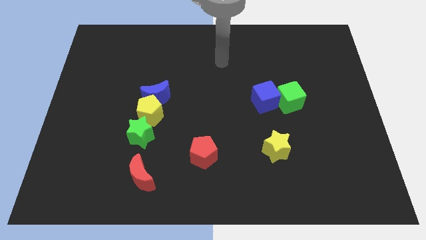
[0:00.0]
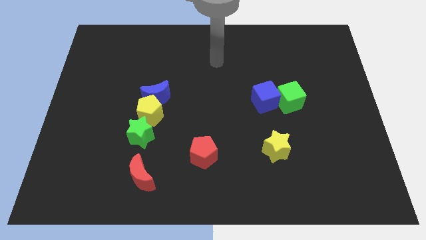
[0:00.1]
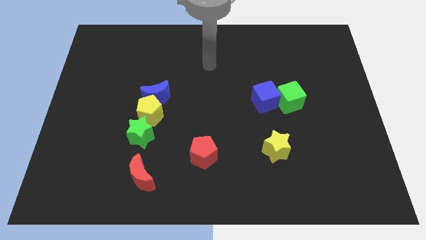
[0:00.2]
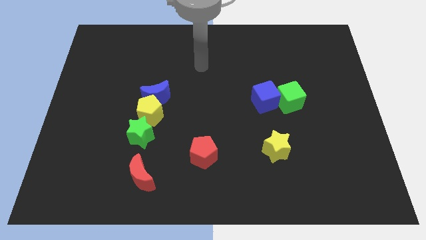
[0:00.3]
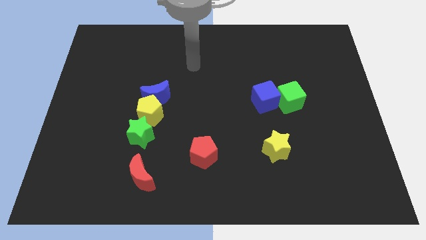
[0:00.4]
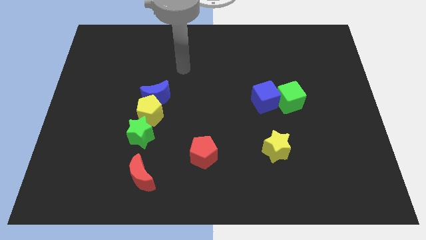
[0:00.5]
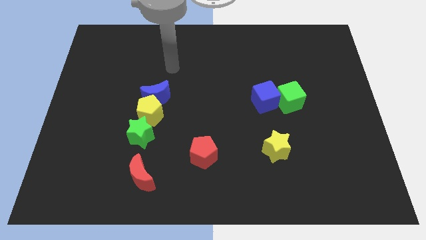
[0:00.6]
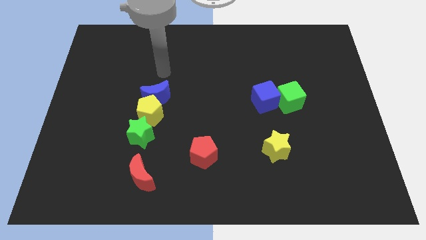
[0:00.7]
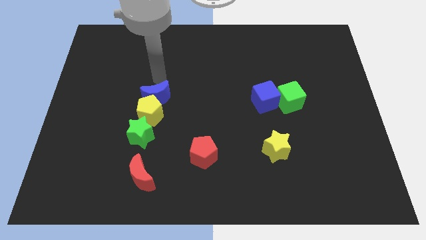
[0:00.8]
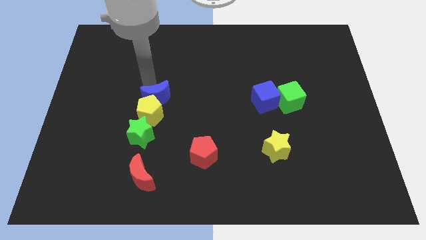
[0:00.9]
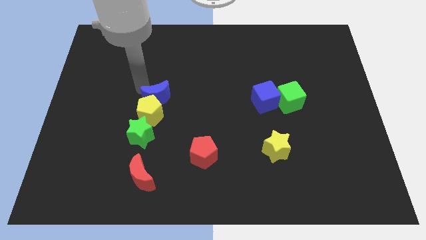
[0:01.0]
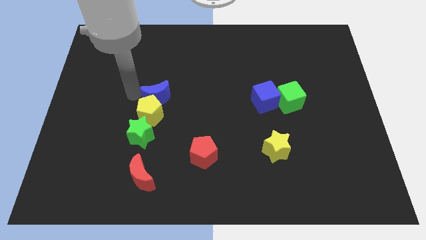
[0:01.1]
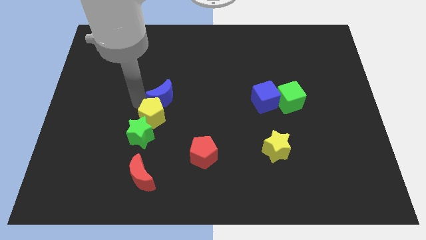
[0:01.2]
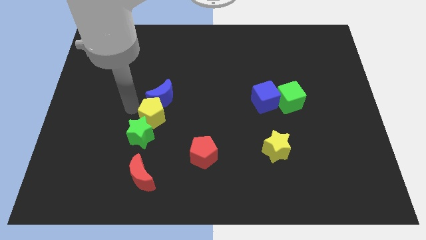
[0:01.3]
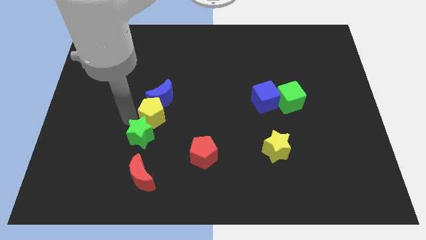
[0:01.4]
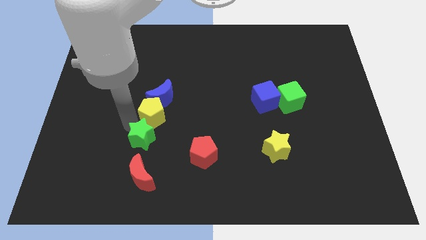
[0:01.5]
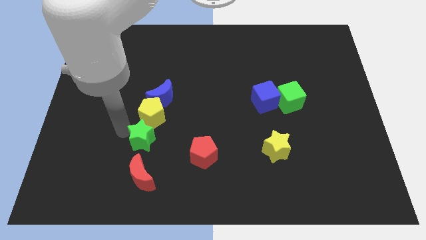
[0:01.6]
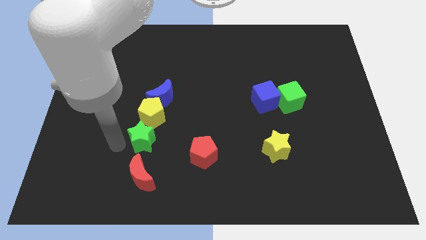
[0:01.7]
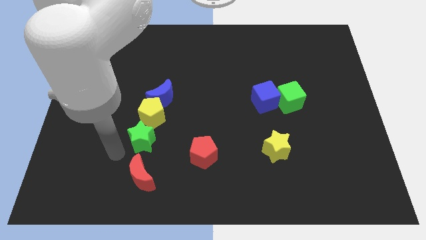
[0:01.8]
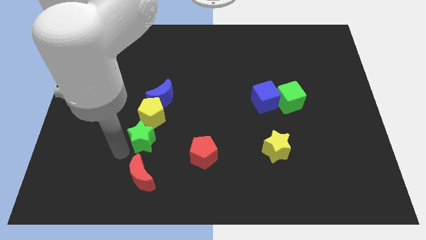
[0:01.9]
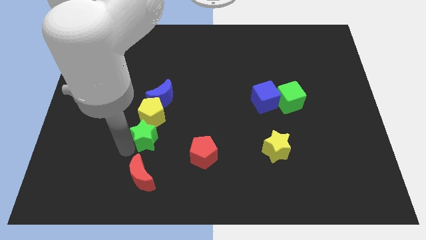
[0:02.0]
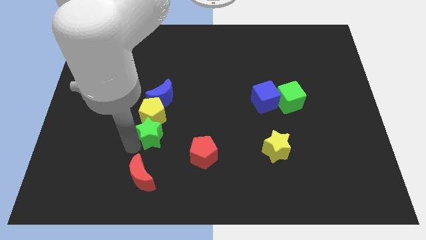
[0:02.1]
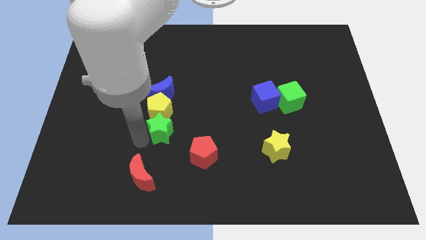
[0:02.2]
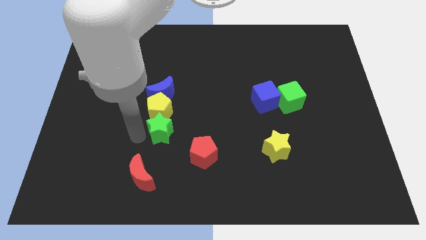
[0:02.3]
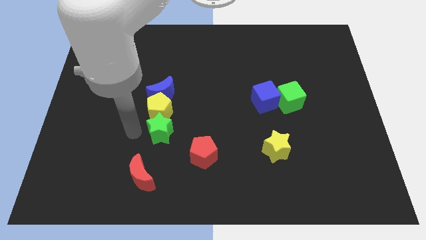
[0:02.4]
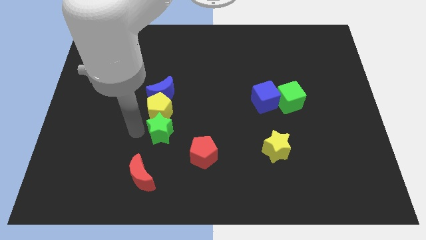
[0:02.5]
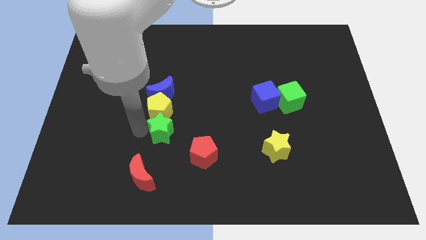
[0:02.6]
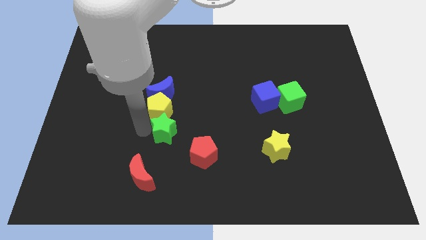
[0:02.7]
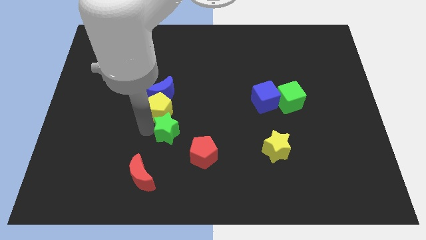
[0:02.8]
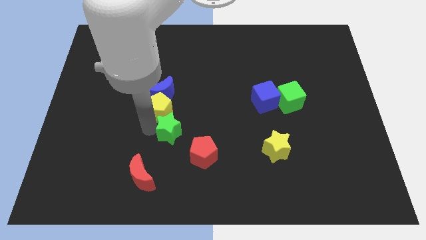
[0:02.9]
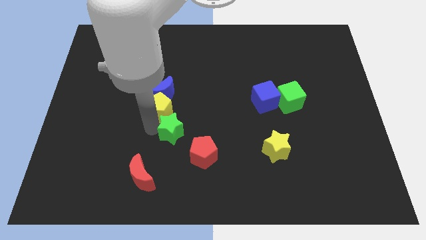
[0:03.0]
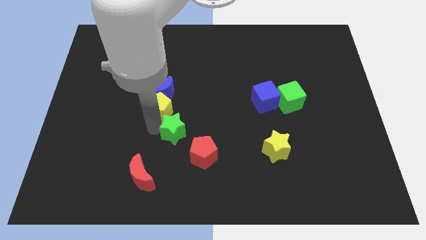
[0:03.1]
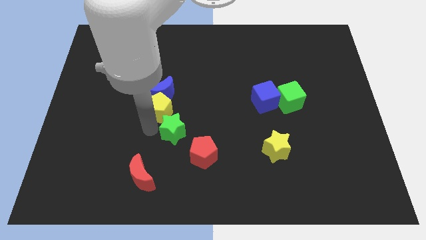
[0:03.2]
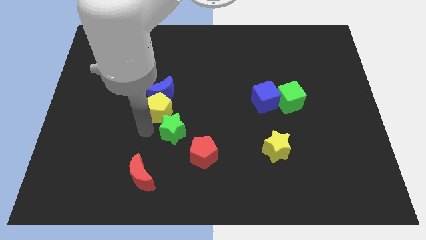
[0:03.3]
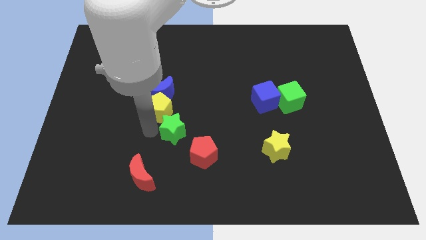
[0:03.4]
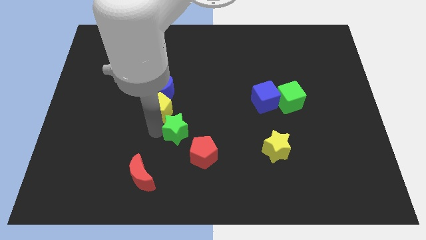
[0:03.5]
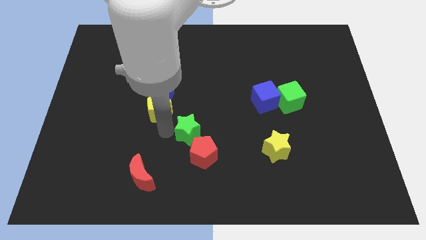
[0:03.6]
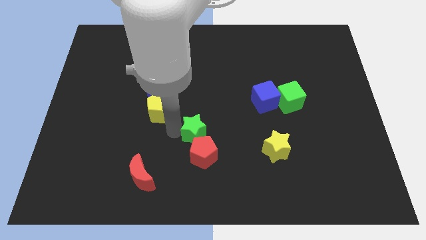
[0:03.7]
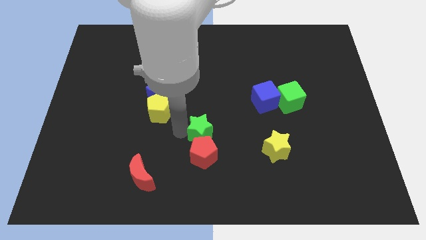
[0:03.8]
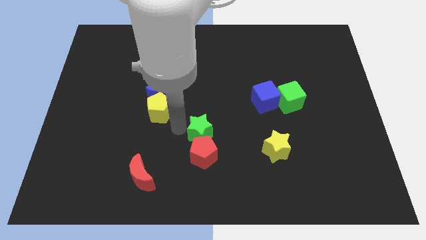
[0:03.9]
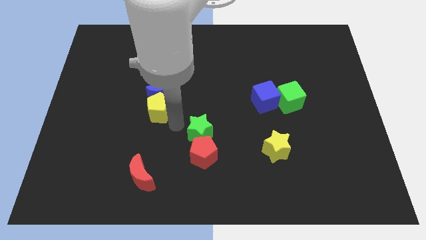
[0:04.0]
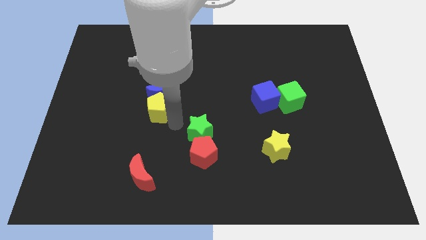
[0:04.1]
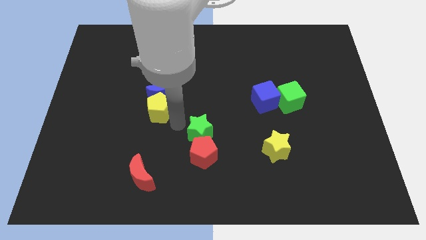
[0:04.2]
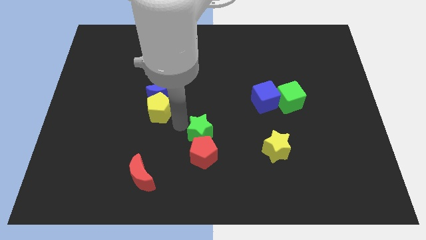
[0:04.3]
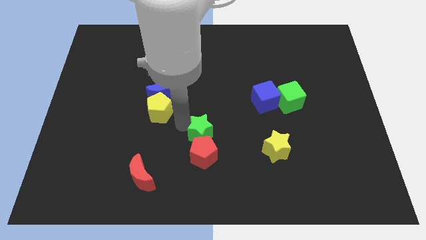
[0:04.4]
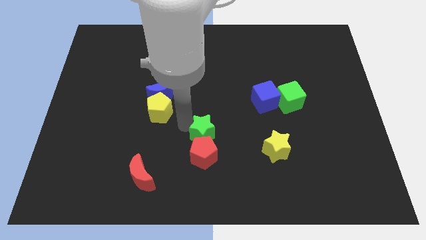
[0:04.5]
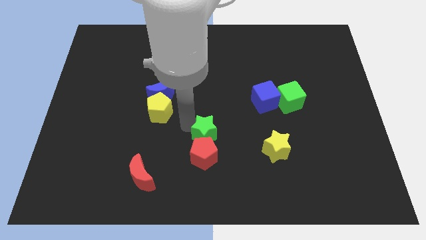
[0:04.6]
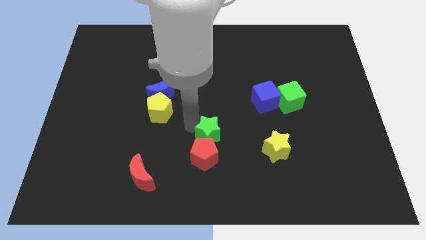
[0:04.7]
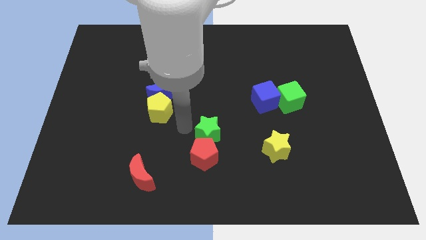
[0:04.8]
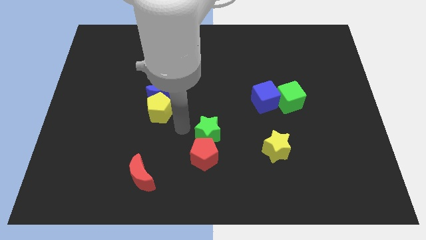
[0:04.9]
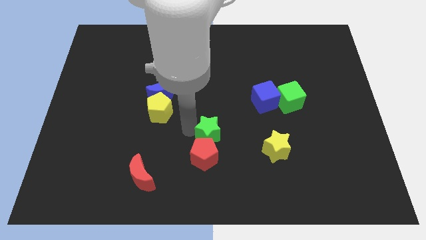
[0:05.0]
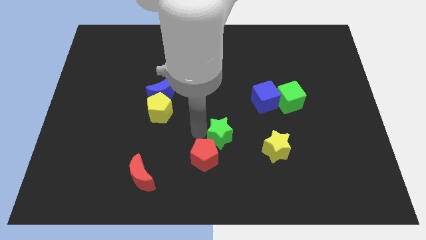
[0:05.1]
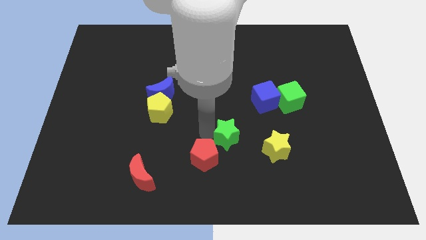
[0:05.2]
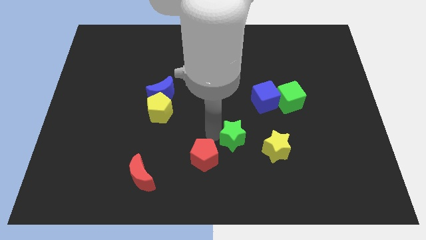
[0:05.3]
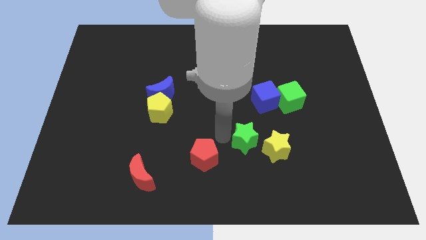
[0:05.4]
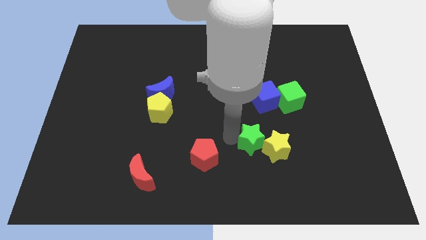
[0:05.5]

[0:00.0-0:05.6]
push the green star close to the yellow star

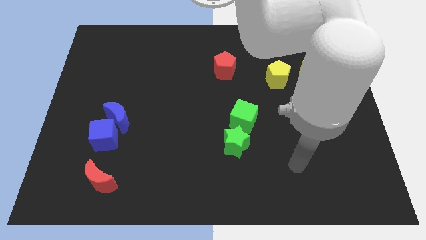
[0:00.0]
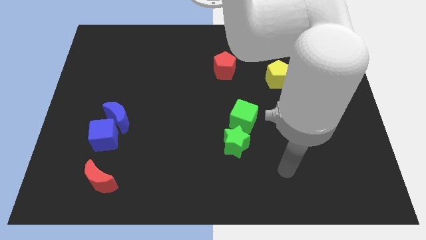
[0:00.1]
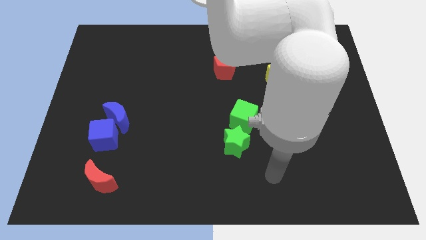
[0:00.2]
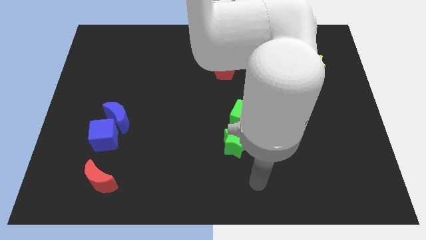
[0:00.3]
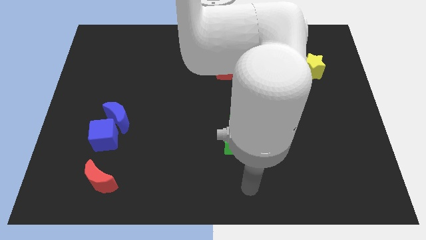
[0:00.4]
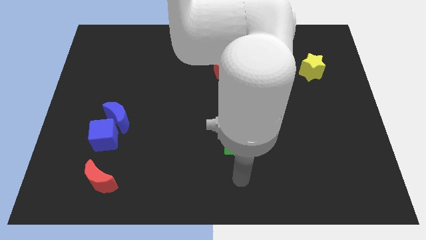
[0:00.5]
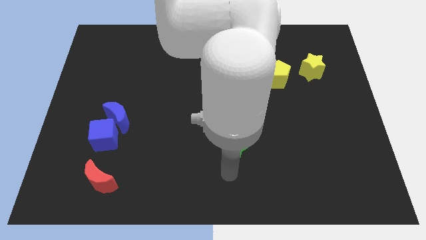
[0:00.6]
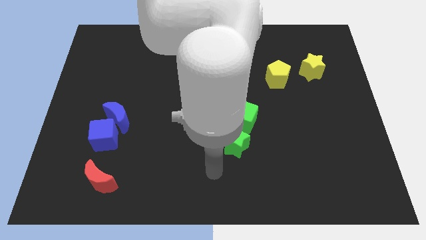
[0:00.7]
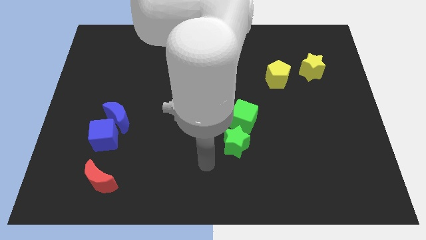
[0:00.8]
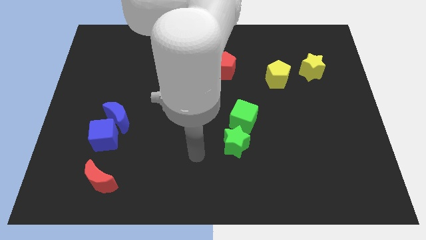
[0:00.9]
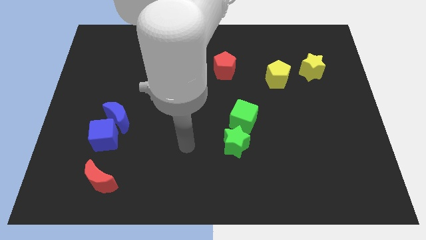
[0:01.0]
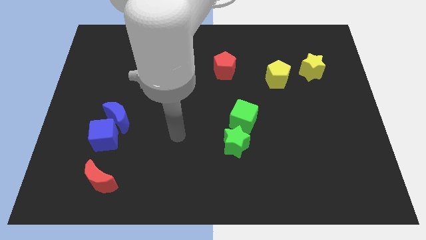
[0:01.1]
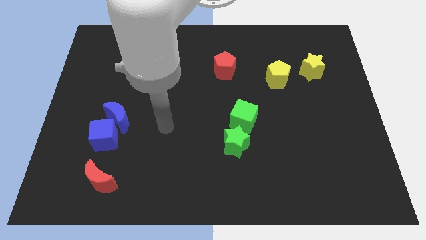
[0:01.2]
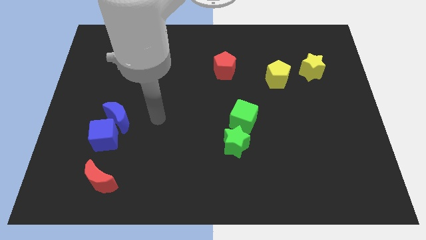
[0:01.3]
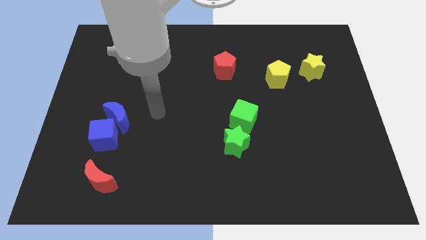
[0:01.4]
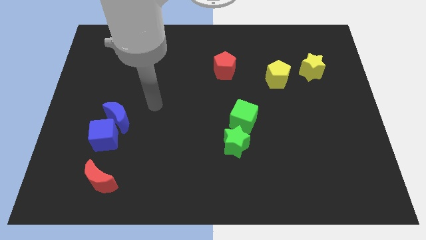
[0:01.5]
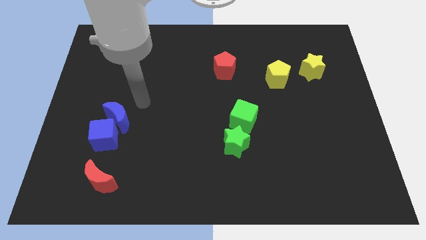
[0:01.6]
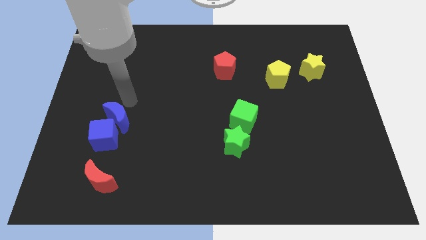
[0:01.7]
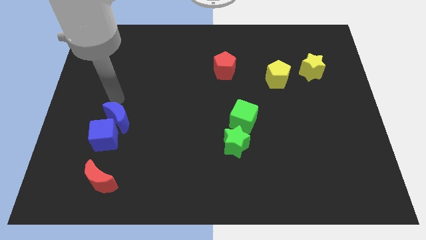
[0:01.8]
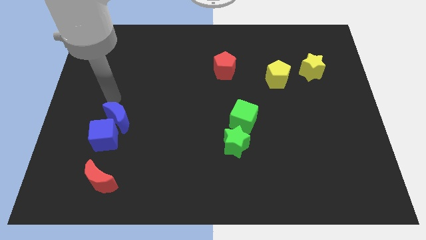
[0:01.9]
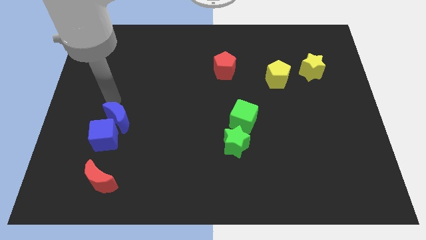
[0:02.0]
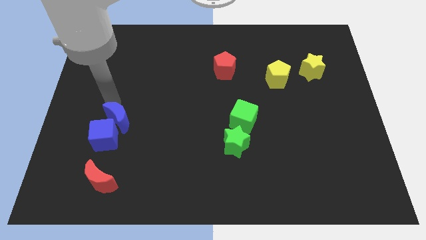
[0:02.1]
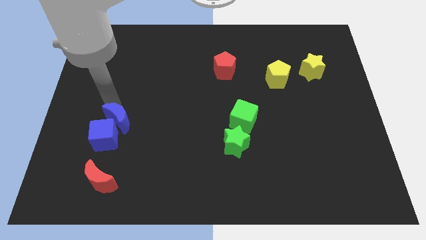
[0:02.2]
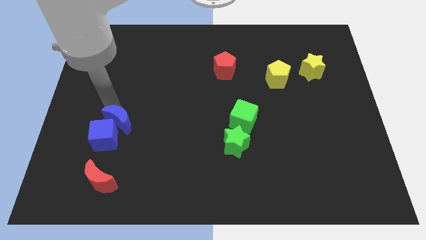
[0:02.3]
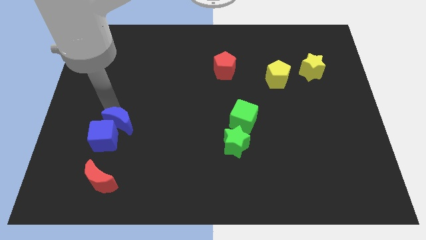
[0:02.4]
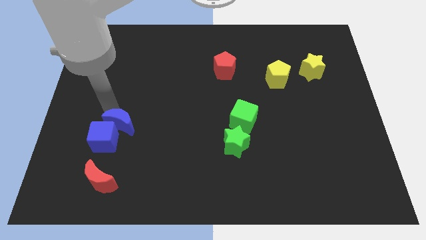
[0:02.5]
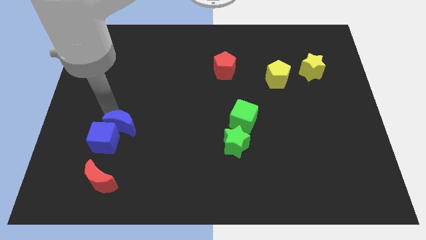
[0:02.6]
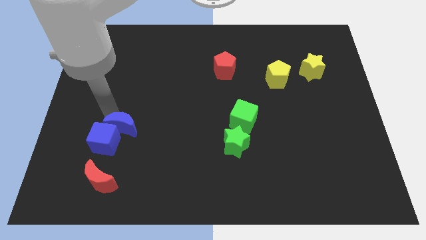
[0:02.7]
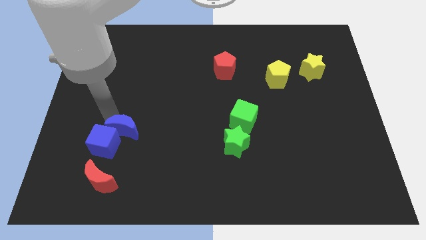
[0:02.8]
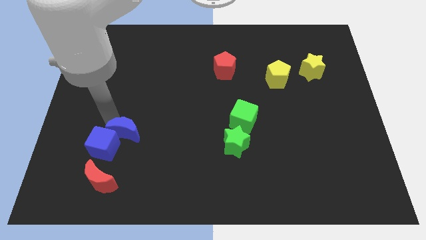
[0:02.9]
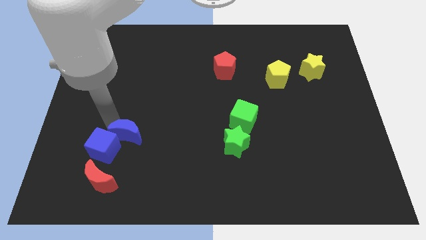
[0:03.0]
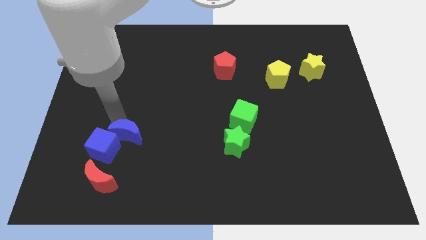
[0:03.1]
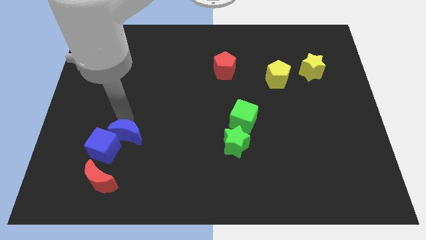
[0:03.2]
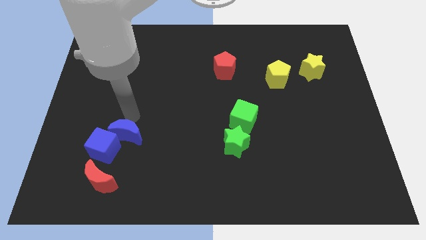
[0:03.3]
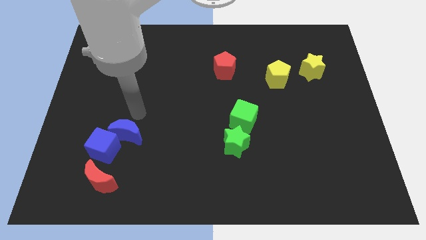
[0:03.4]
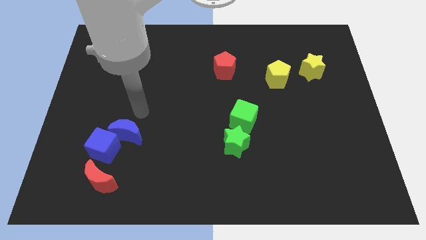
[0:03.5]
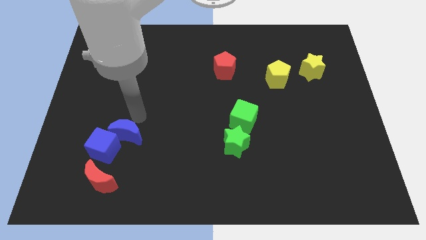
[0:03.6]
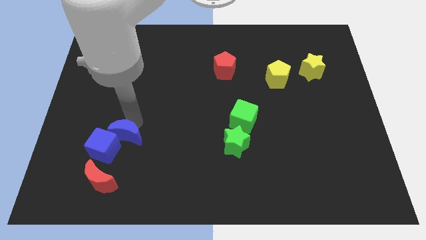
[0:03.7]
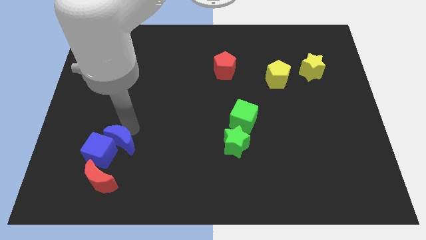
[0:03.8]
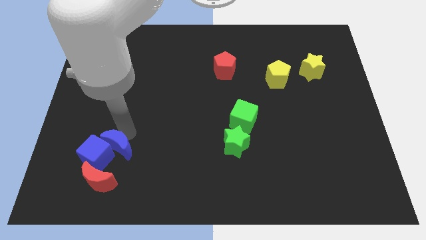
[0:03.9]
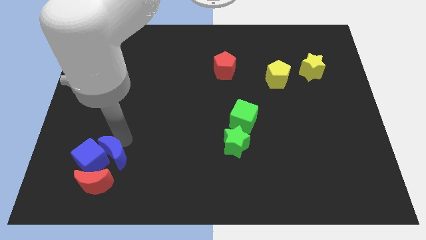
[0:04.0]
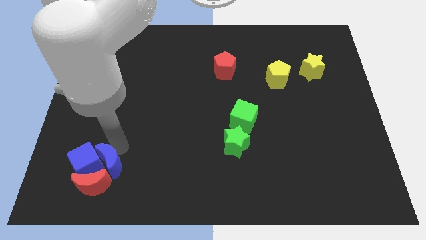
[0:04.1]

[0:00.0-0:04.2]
move the blue moon close to the red moon
